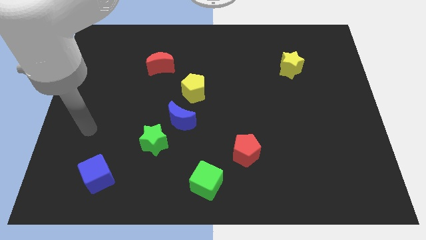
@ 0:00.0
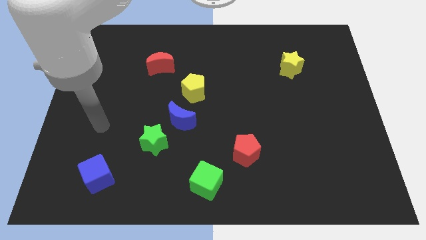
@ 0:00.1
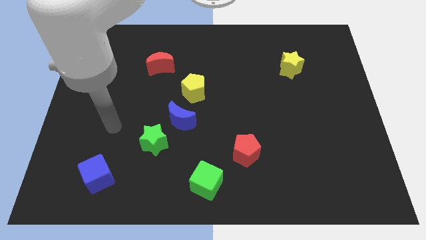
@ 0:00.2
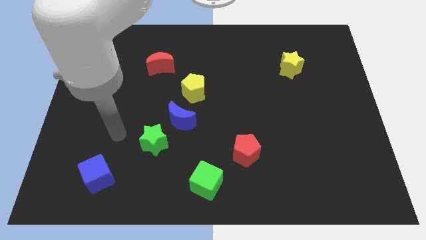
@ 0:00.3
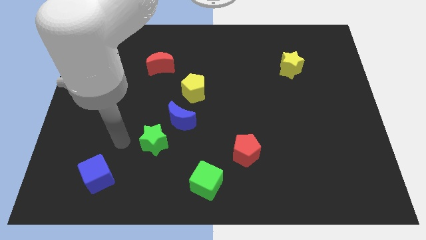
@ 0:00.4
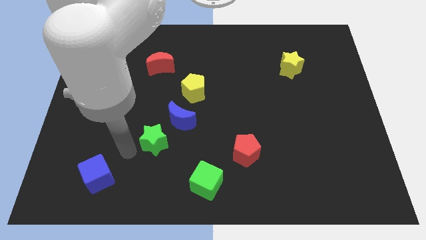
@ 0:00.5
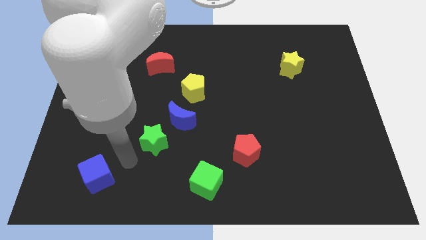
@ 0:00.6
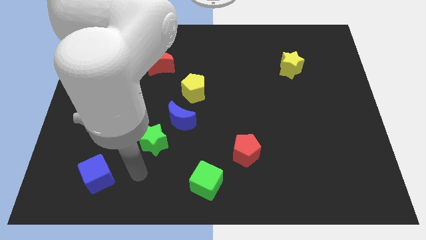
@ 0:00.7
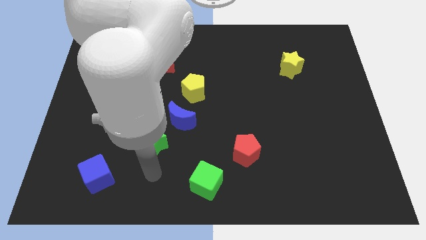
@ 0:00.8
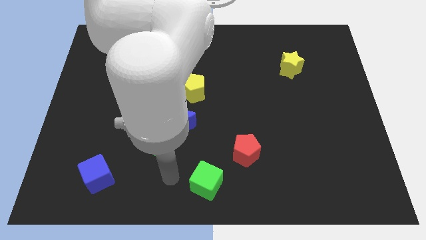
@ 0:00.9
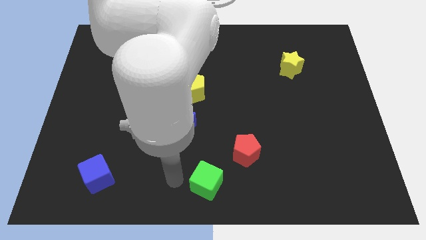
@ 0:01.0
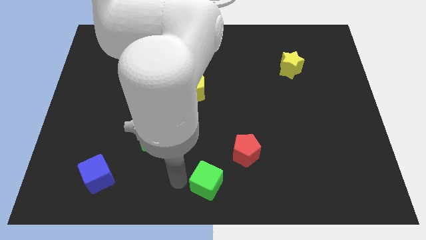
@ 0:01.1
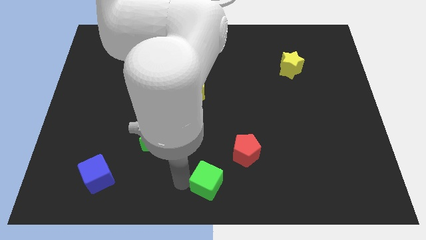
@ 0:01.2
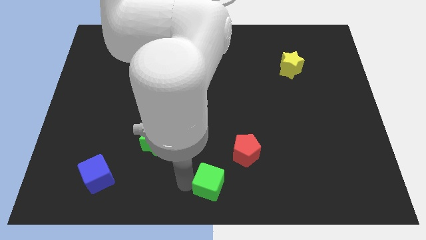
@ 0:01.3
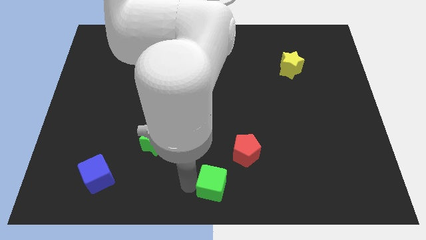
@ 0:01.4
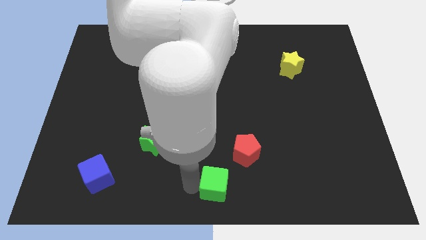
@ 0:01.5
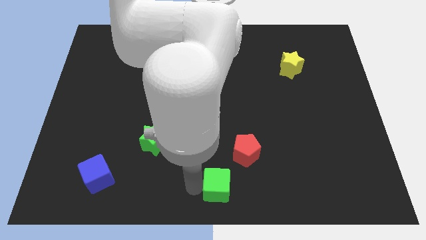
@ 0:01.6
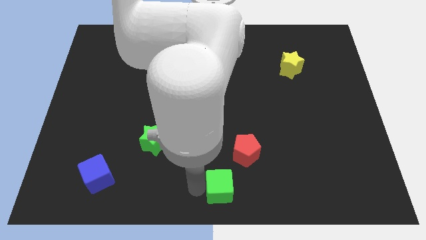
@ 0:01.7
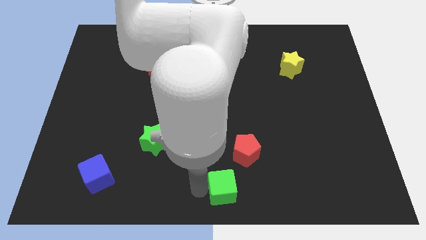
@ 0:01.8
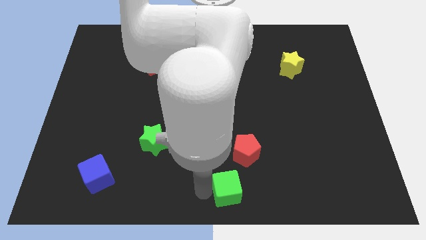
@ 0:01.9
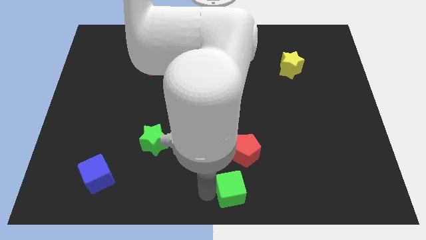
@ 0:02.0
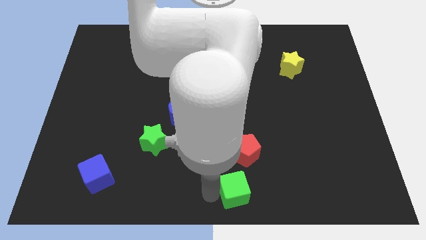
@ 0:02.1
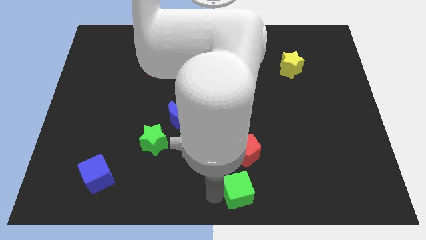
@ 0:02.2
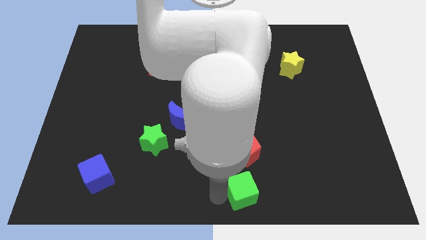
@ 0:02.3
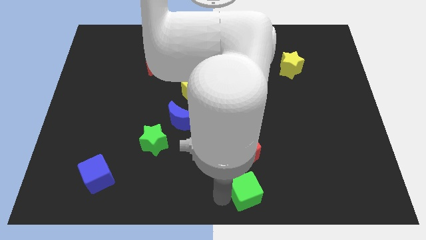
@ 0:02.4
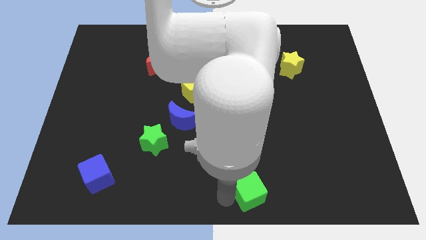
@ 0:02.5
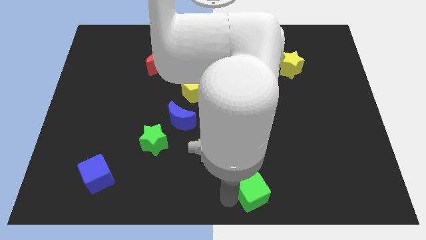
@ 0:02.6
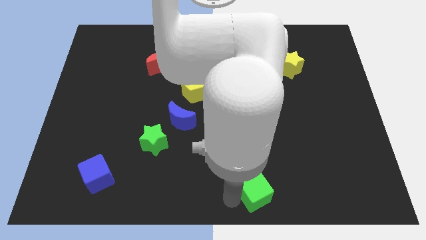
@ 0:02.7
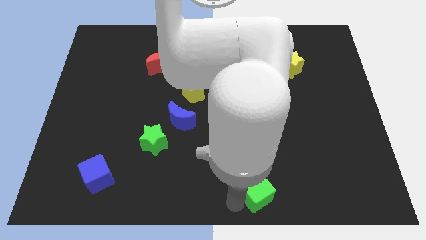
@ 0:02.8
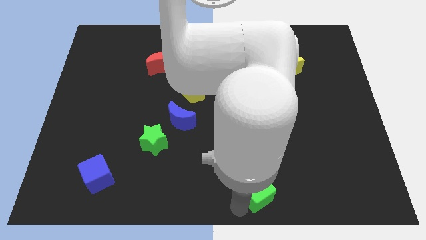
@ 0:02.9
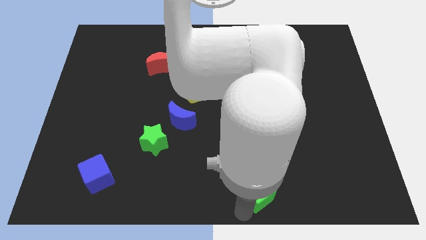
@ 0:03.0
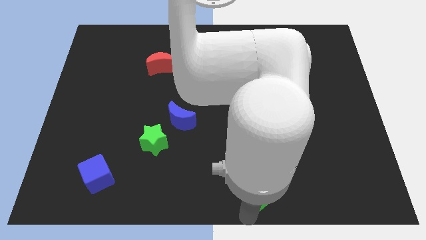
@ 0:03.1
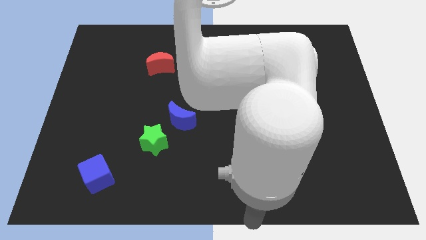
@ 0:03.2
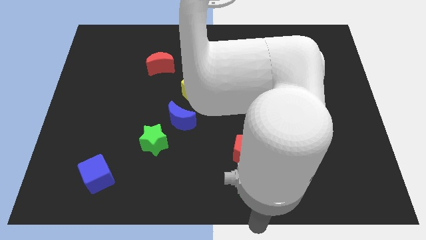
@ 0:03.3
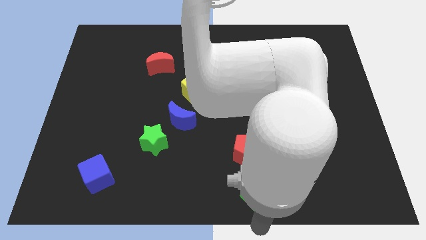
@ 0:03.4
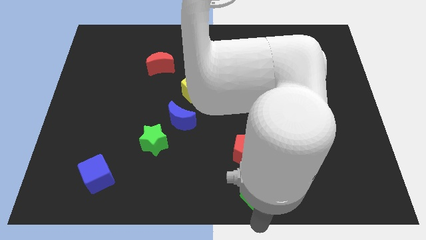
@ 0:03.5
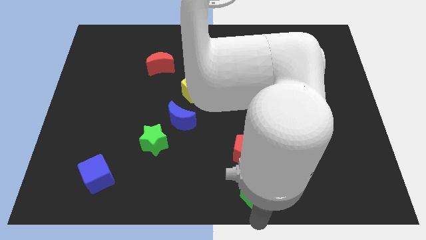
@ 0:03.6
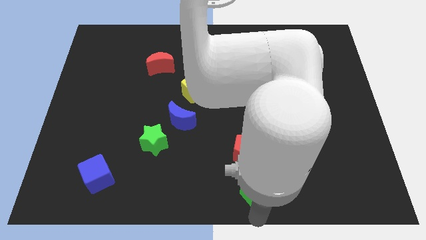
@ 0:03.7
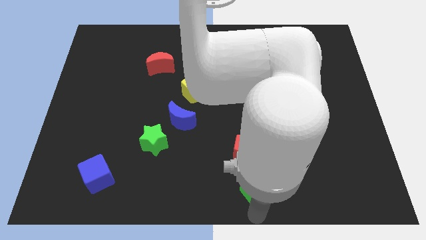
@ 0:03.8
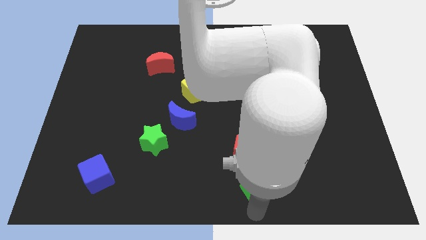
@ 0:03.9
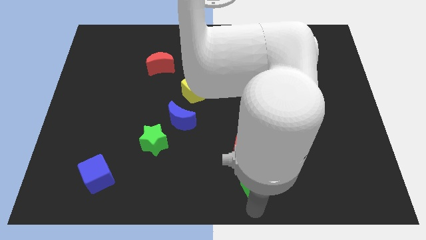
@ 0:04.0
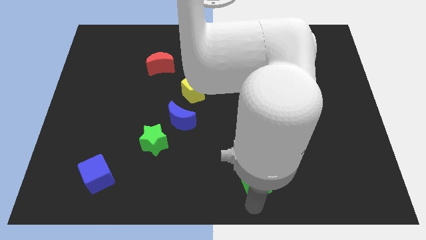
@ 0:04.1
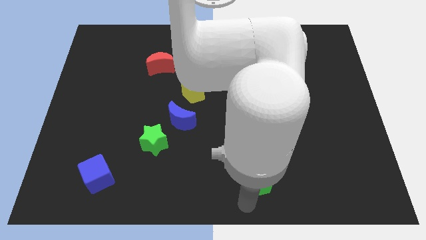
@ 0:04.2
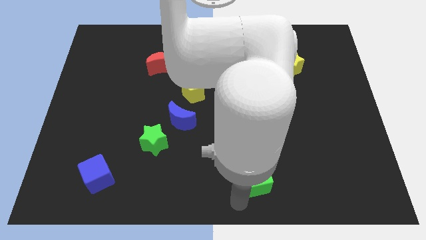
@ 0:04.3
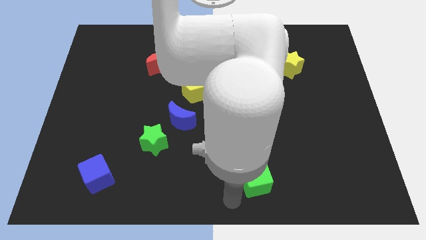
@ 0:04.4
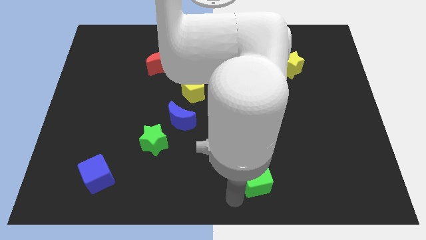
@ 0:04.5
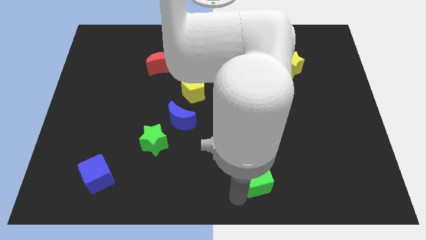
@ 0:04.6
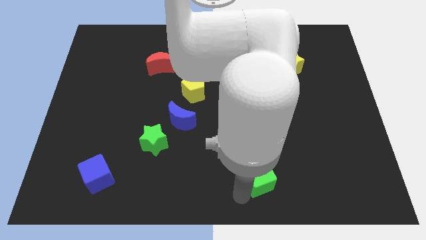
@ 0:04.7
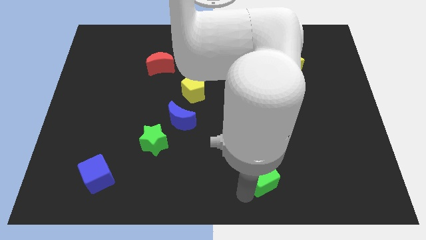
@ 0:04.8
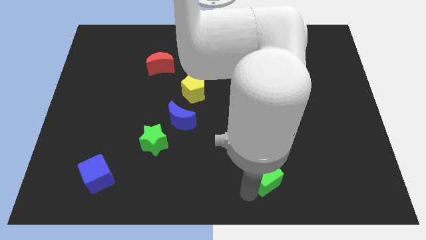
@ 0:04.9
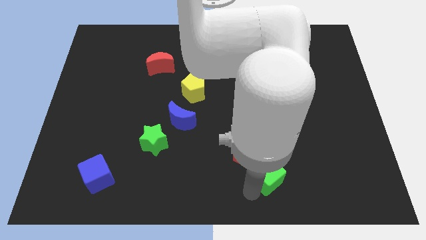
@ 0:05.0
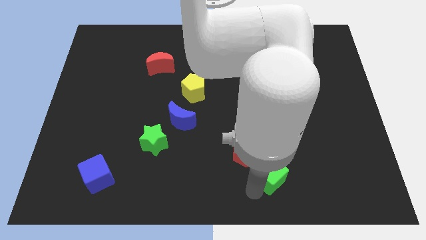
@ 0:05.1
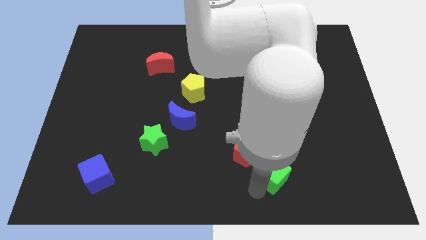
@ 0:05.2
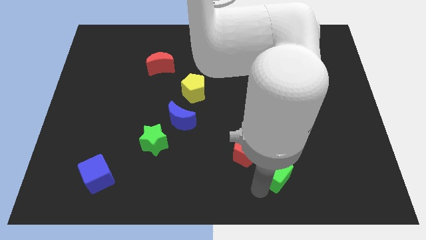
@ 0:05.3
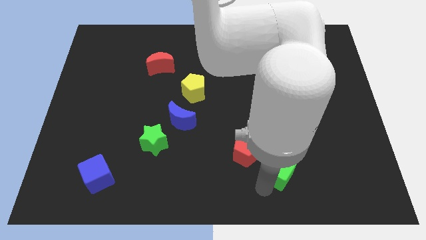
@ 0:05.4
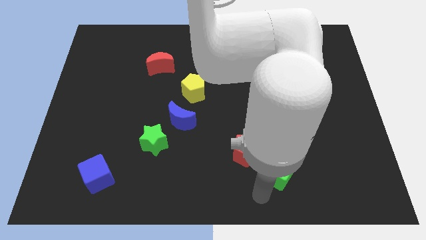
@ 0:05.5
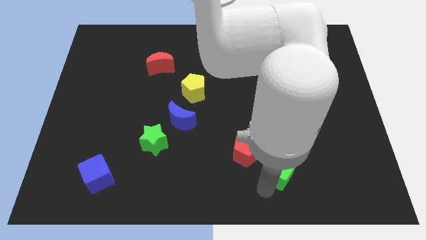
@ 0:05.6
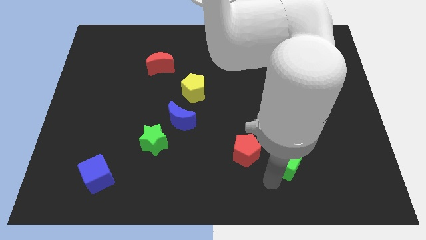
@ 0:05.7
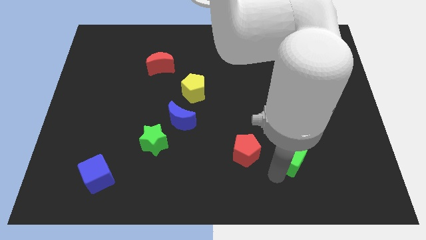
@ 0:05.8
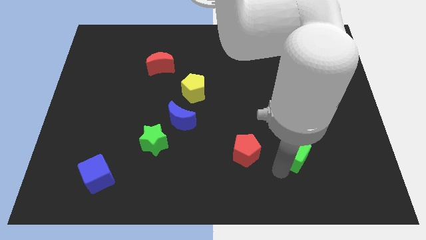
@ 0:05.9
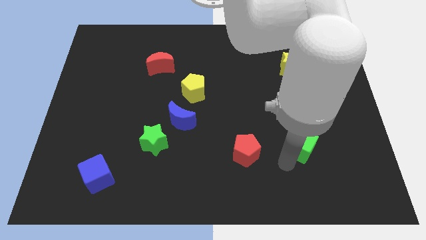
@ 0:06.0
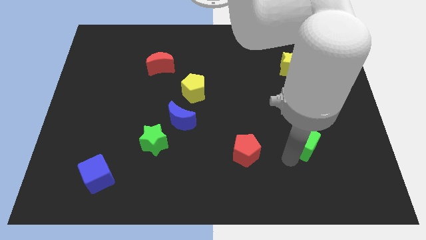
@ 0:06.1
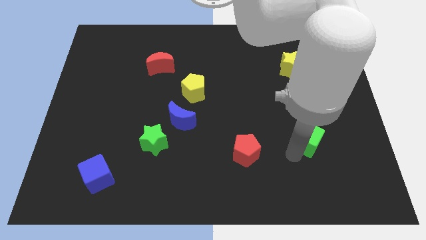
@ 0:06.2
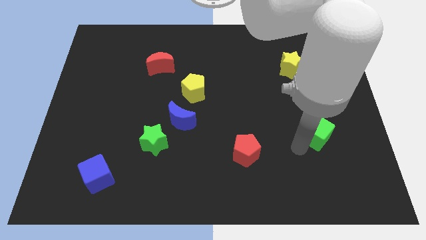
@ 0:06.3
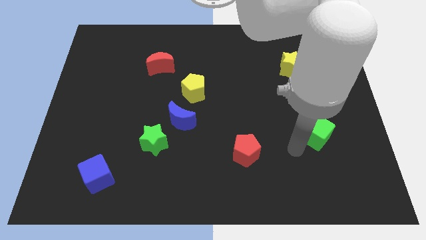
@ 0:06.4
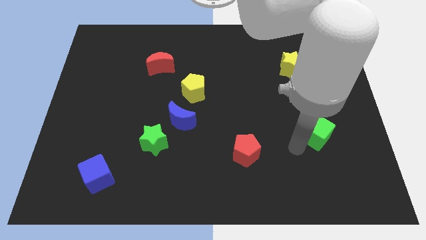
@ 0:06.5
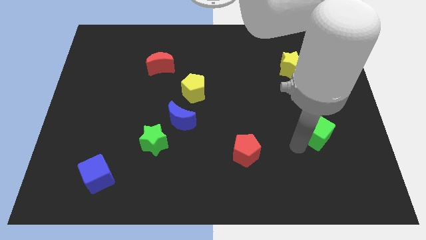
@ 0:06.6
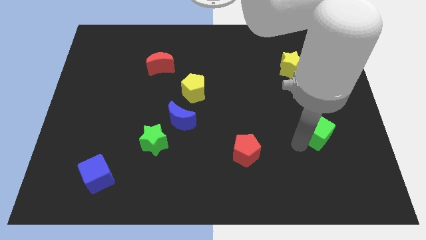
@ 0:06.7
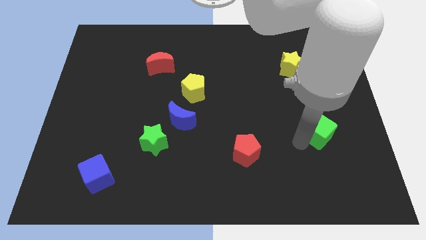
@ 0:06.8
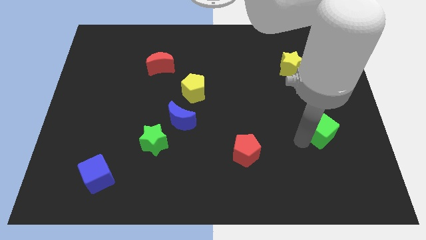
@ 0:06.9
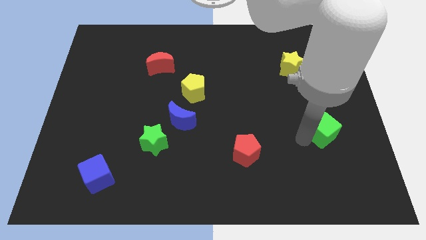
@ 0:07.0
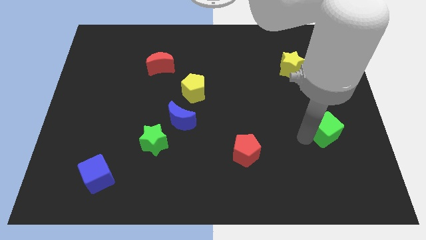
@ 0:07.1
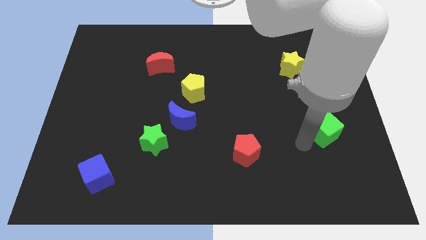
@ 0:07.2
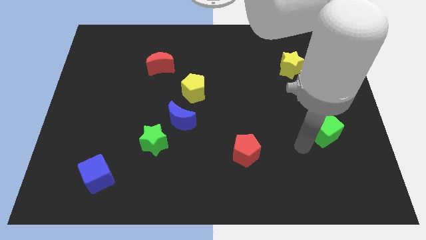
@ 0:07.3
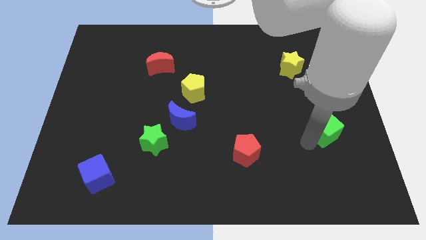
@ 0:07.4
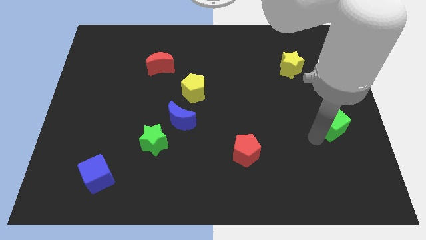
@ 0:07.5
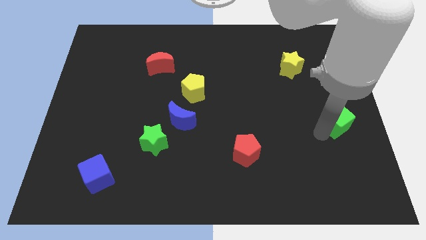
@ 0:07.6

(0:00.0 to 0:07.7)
push the green cube to the center right
